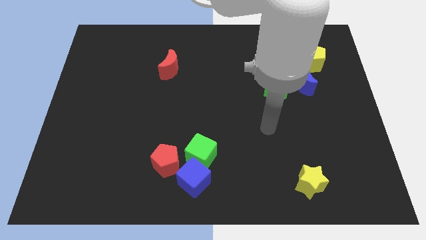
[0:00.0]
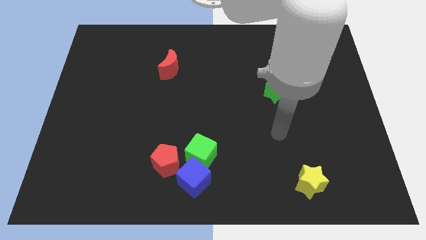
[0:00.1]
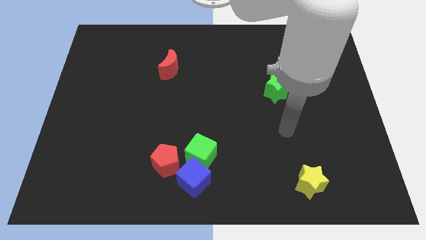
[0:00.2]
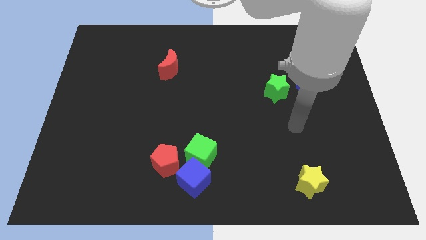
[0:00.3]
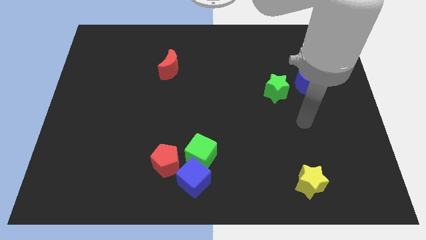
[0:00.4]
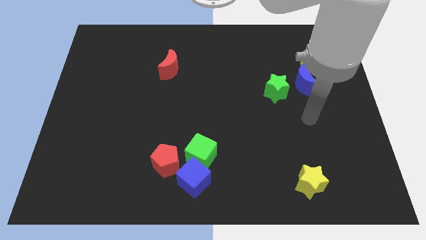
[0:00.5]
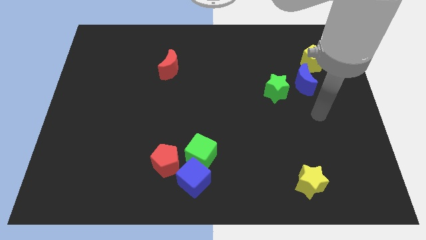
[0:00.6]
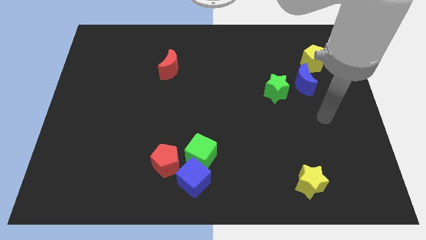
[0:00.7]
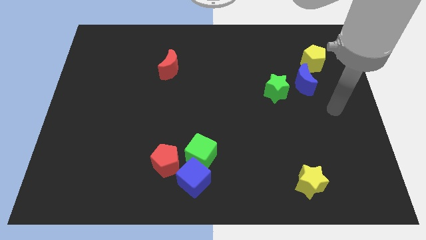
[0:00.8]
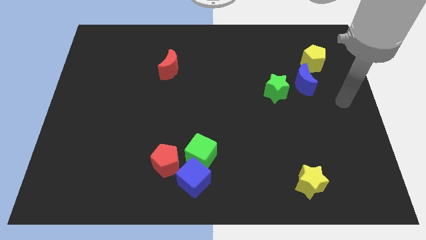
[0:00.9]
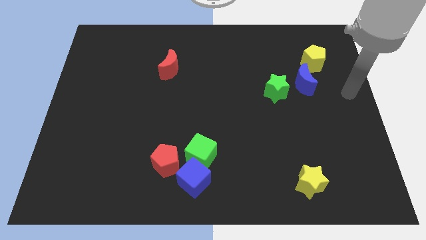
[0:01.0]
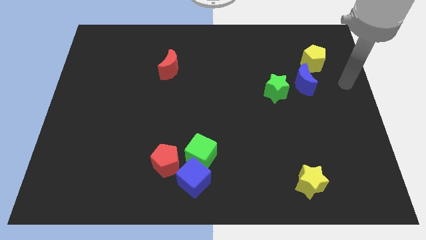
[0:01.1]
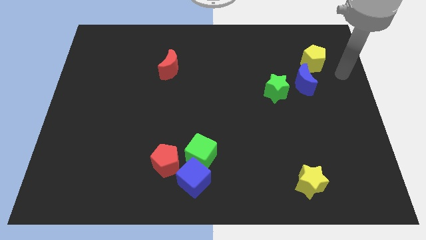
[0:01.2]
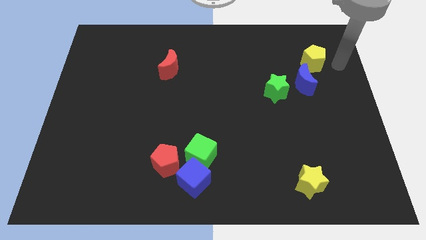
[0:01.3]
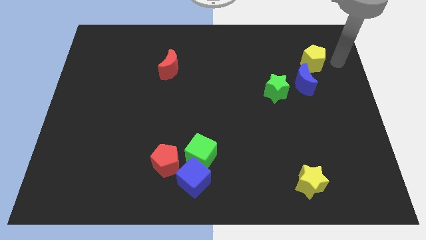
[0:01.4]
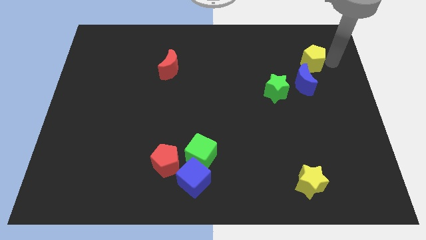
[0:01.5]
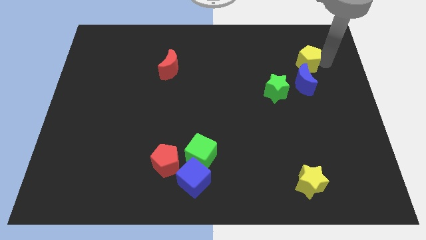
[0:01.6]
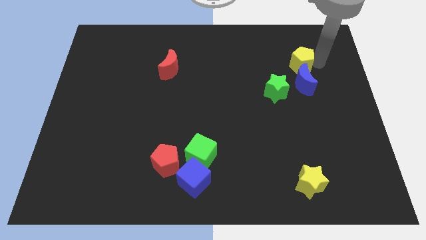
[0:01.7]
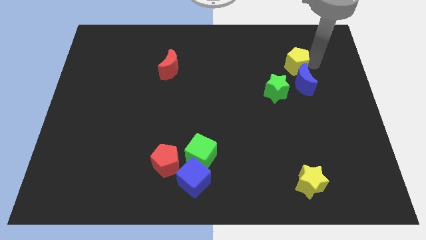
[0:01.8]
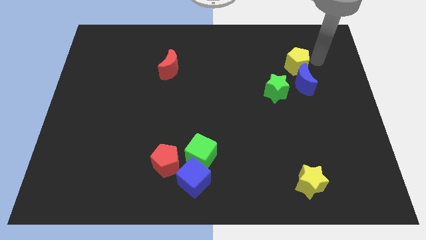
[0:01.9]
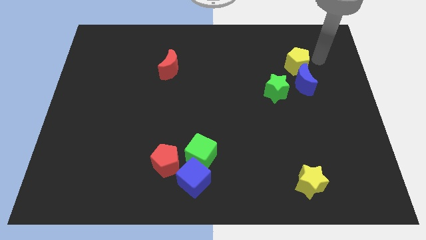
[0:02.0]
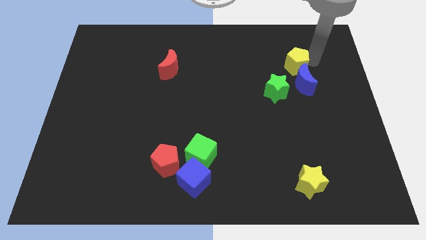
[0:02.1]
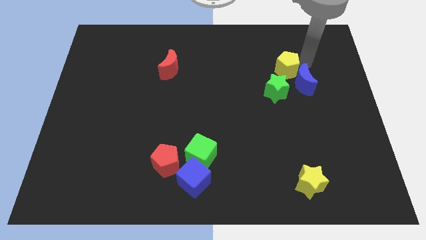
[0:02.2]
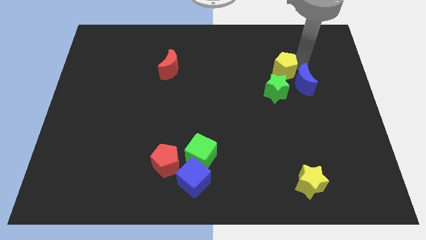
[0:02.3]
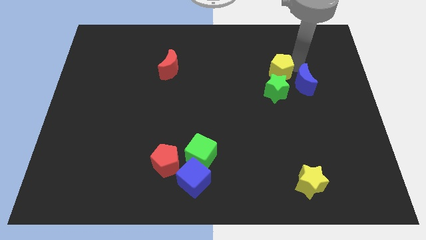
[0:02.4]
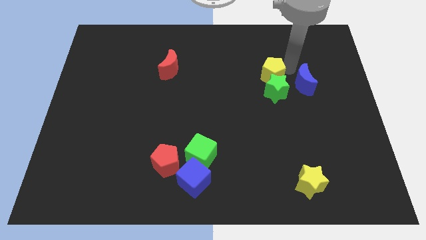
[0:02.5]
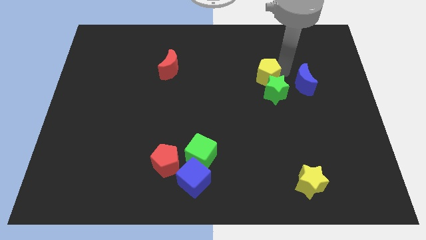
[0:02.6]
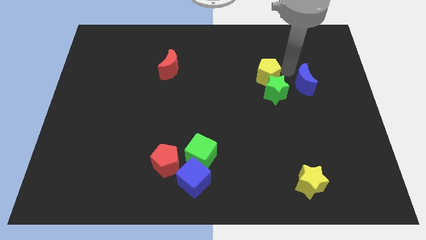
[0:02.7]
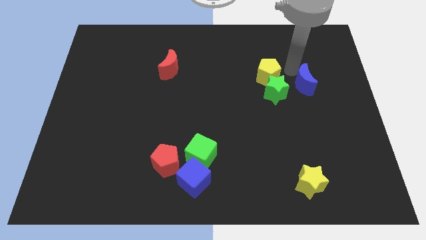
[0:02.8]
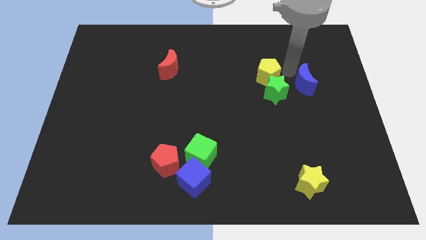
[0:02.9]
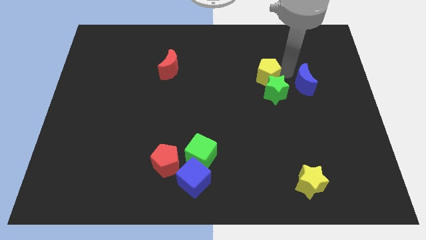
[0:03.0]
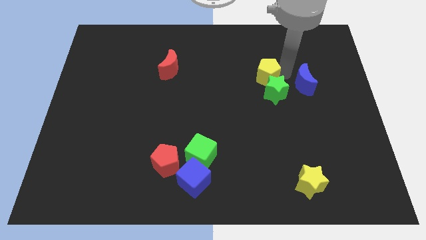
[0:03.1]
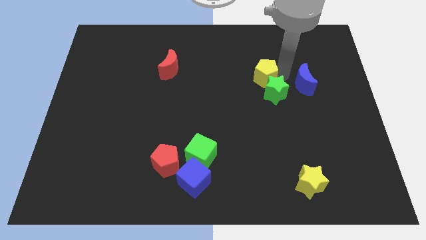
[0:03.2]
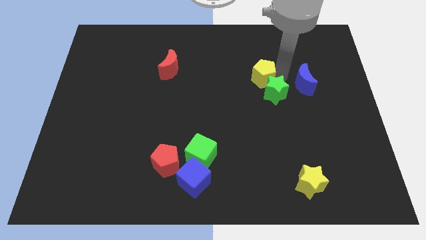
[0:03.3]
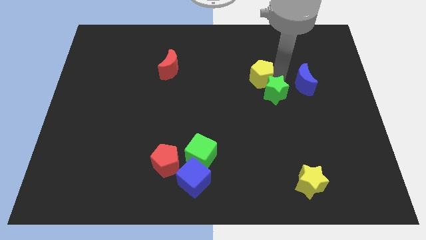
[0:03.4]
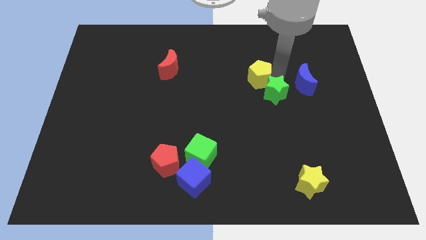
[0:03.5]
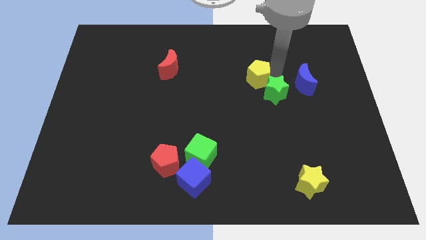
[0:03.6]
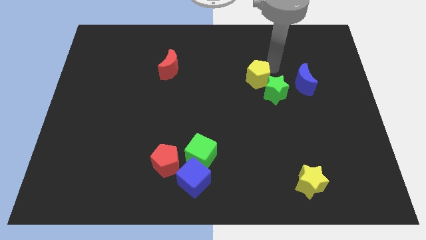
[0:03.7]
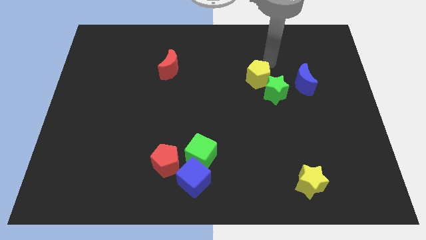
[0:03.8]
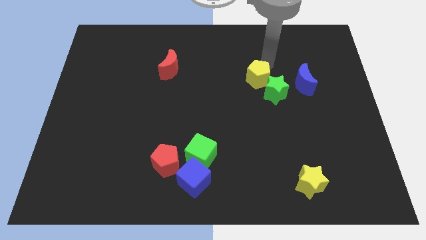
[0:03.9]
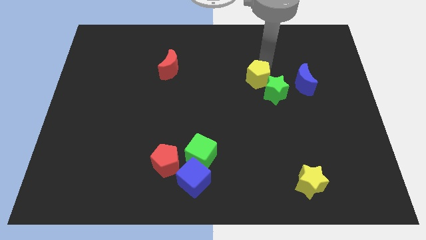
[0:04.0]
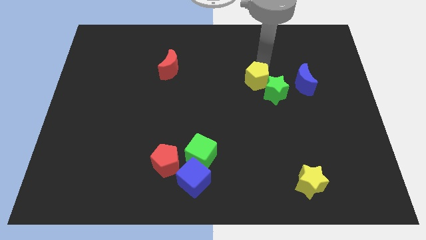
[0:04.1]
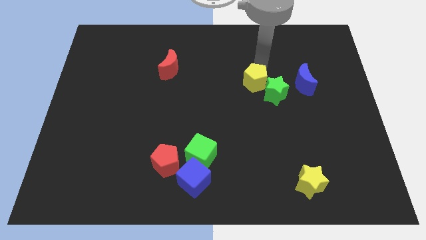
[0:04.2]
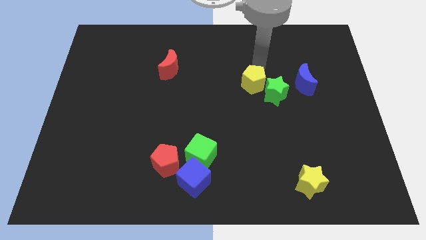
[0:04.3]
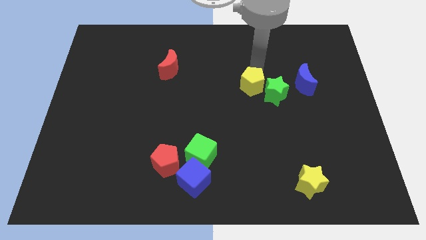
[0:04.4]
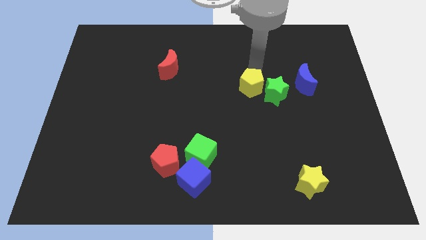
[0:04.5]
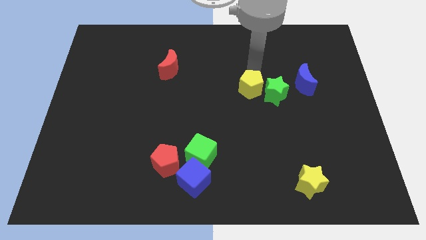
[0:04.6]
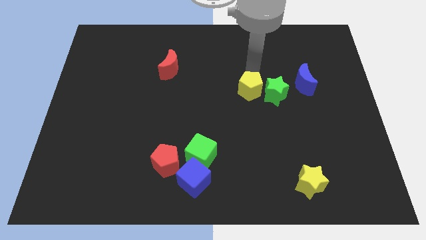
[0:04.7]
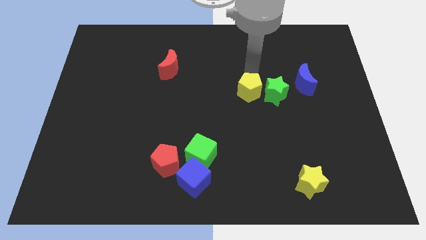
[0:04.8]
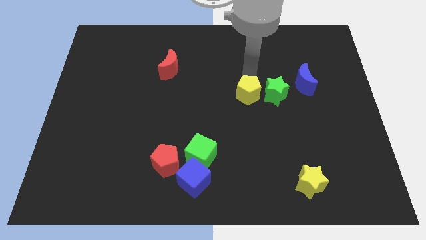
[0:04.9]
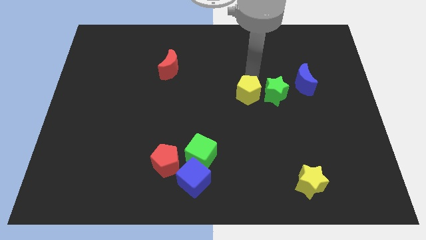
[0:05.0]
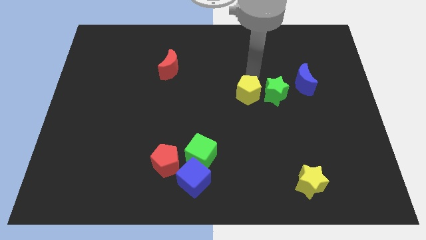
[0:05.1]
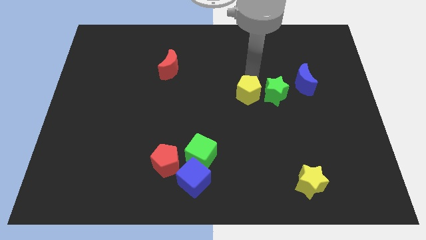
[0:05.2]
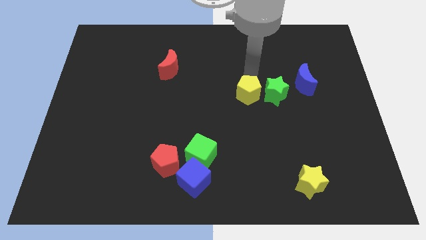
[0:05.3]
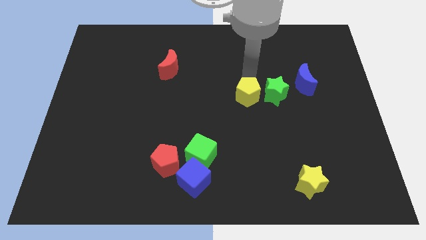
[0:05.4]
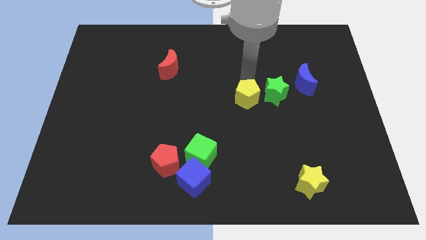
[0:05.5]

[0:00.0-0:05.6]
push the yellow pentagon downwards and then left

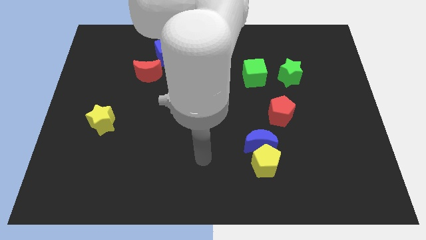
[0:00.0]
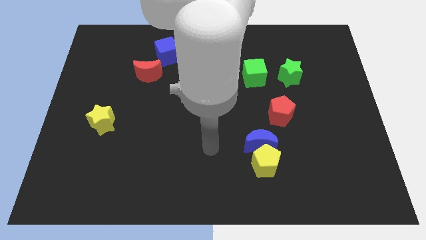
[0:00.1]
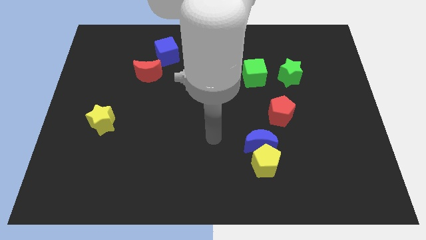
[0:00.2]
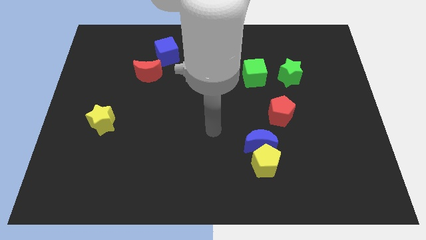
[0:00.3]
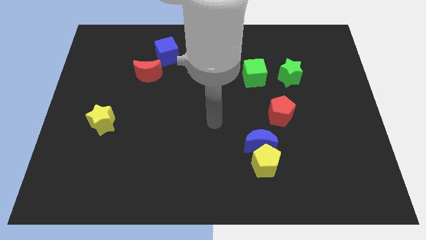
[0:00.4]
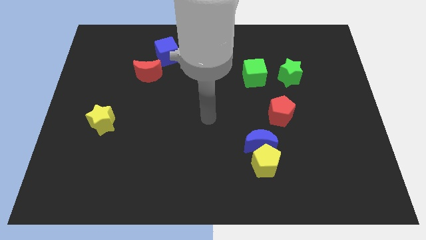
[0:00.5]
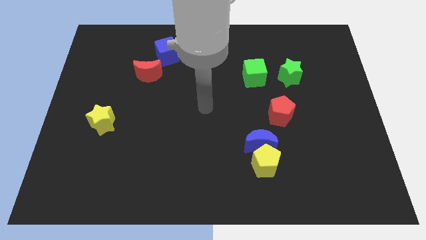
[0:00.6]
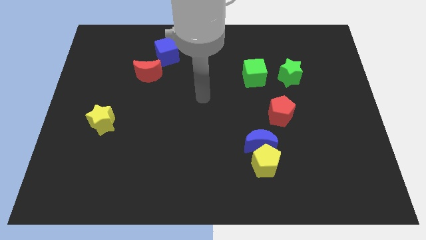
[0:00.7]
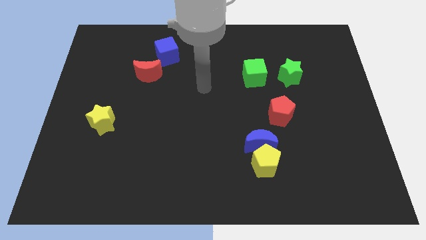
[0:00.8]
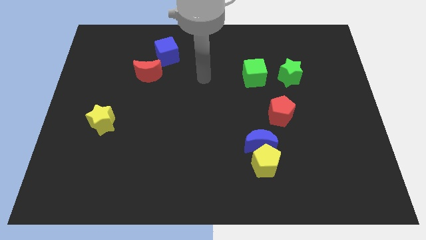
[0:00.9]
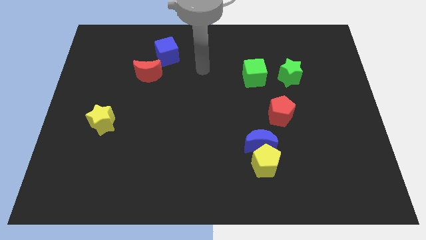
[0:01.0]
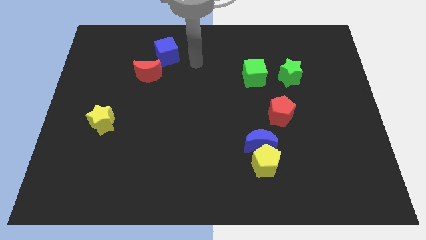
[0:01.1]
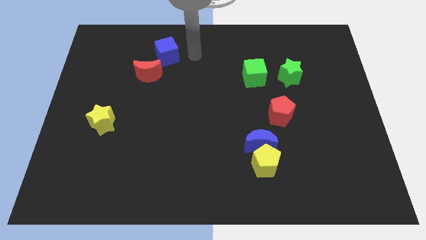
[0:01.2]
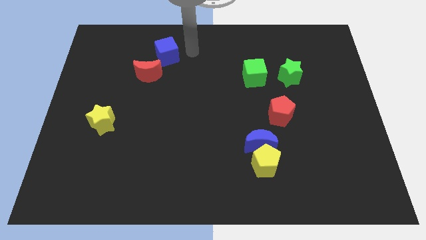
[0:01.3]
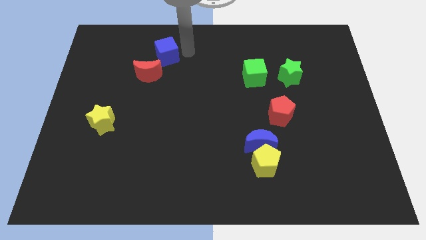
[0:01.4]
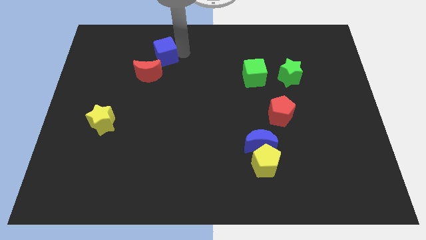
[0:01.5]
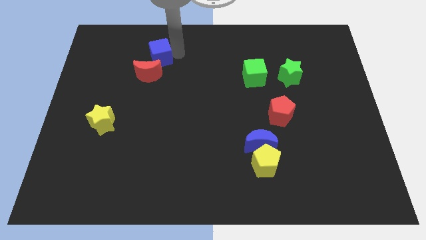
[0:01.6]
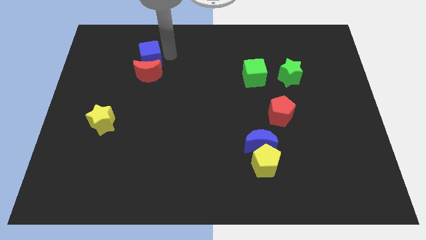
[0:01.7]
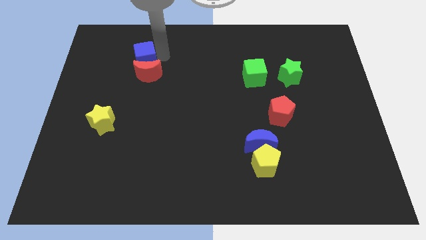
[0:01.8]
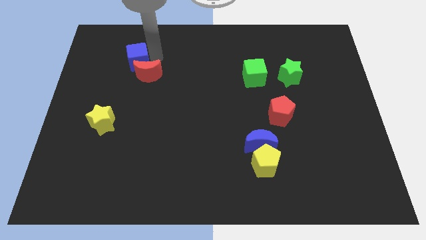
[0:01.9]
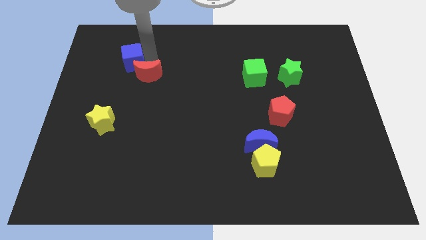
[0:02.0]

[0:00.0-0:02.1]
move the blue cube downwards and left a little

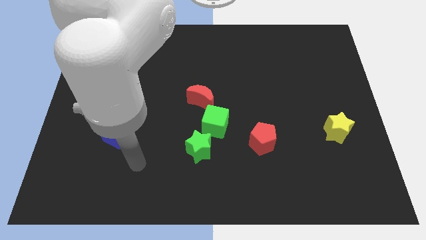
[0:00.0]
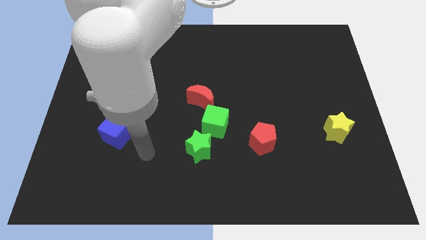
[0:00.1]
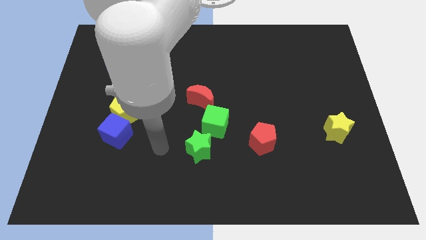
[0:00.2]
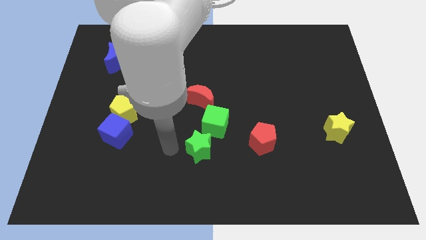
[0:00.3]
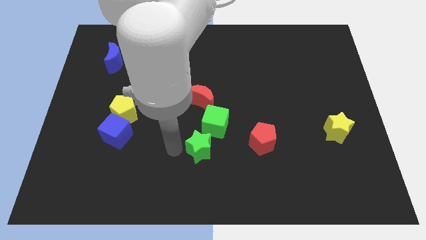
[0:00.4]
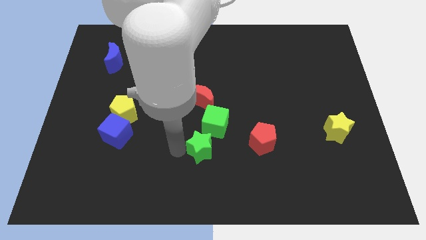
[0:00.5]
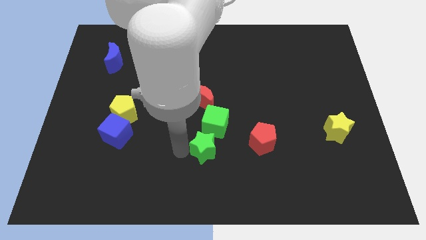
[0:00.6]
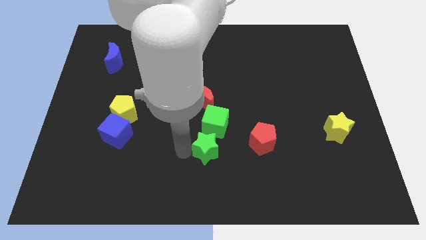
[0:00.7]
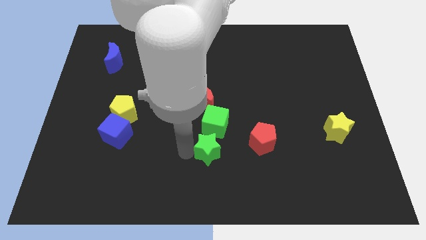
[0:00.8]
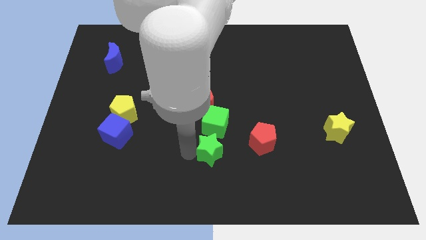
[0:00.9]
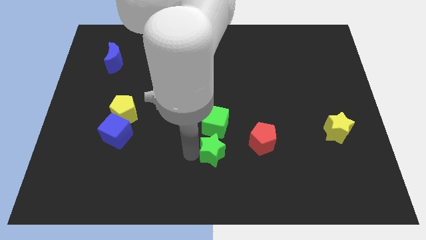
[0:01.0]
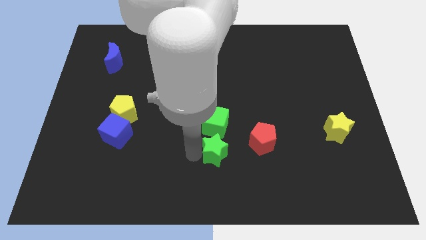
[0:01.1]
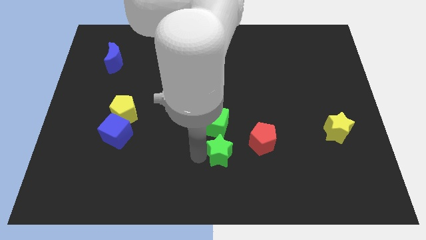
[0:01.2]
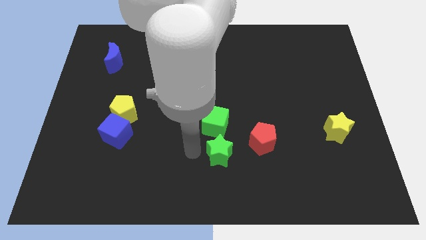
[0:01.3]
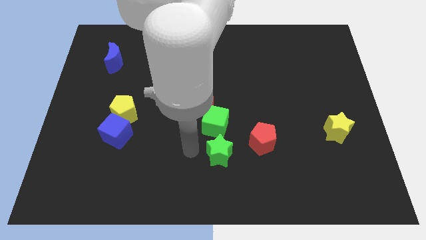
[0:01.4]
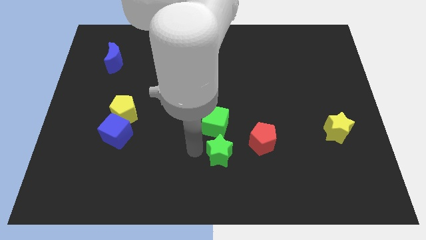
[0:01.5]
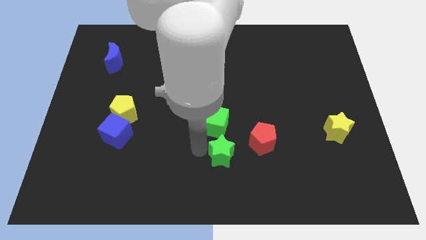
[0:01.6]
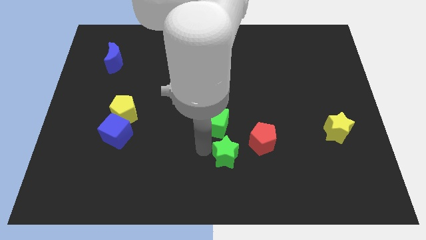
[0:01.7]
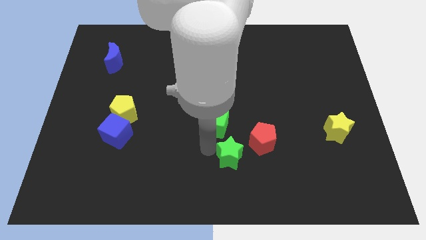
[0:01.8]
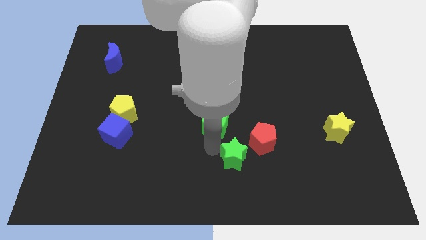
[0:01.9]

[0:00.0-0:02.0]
slightly push the green star to the right
